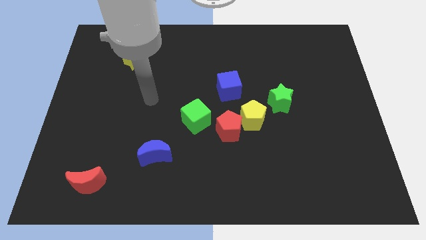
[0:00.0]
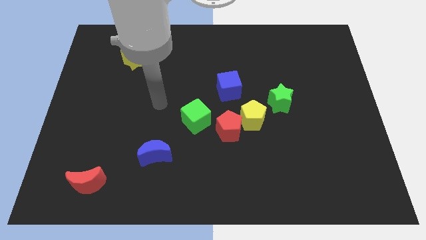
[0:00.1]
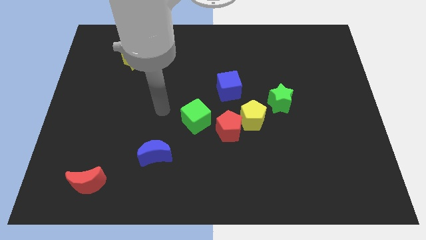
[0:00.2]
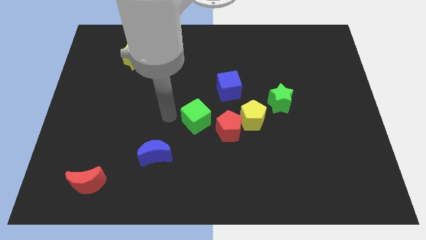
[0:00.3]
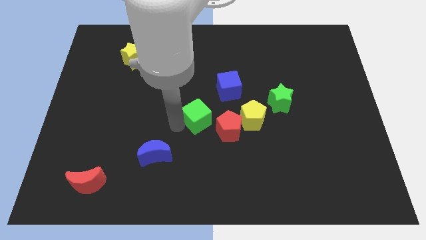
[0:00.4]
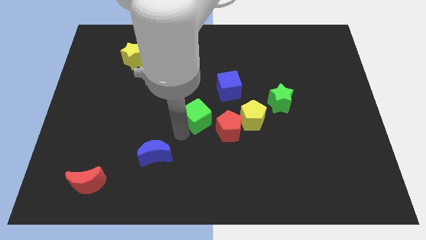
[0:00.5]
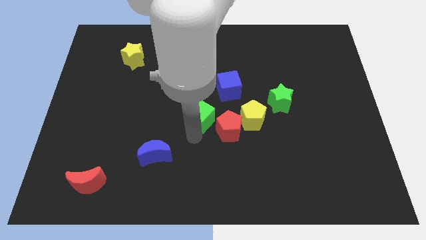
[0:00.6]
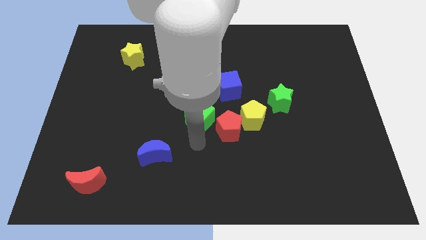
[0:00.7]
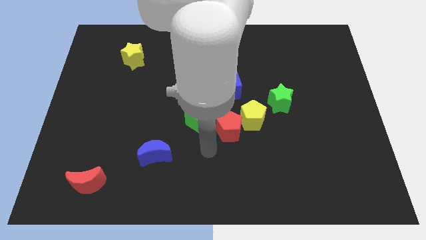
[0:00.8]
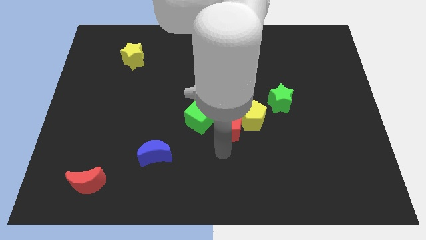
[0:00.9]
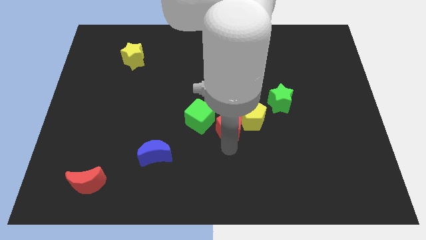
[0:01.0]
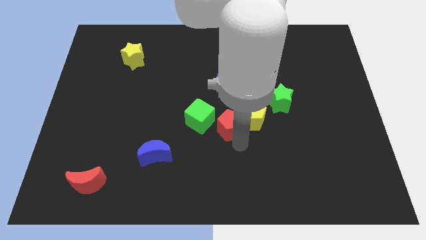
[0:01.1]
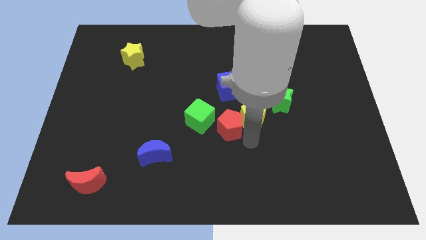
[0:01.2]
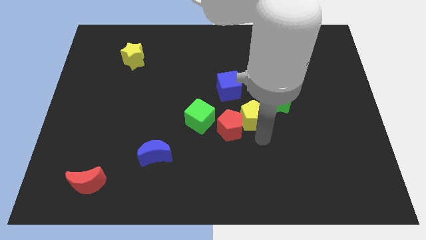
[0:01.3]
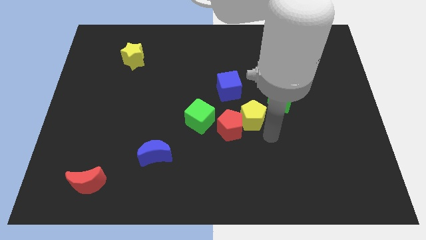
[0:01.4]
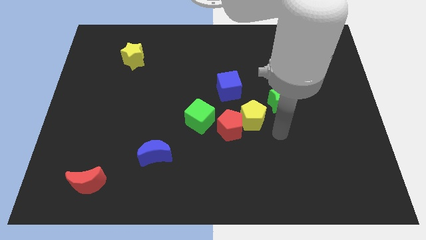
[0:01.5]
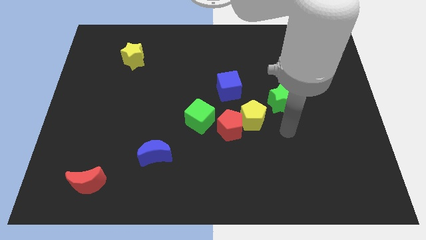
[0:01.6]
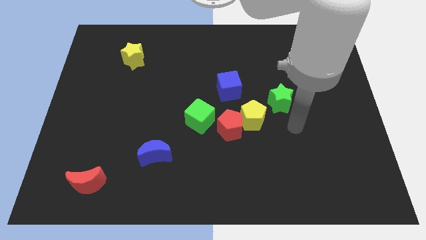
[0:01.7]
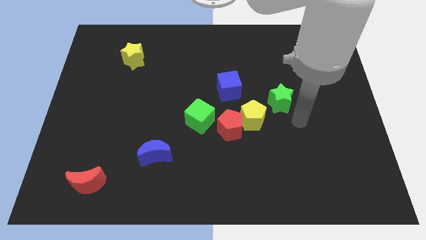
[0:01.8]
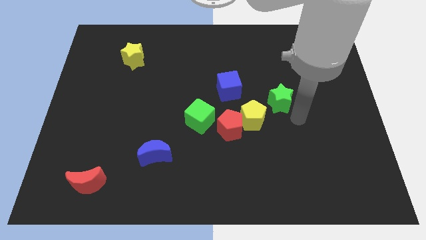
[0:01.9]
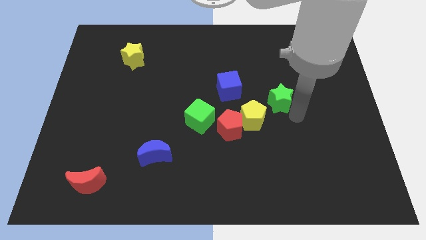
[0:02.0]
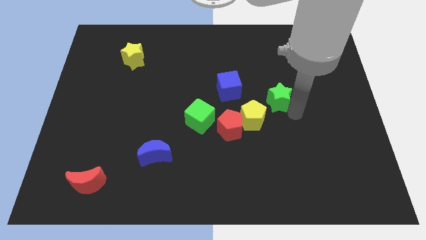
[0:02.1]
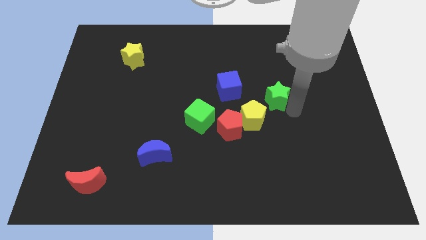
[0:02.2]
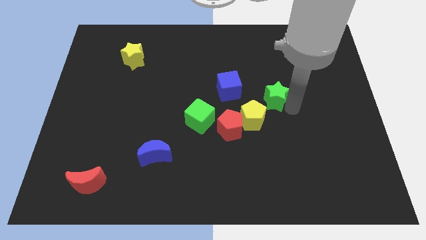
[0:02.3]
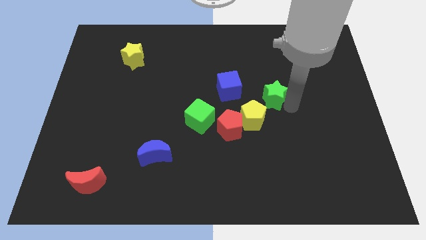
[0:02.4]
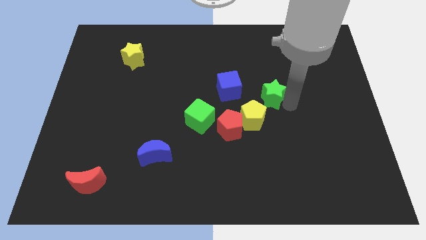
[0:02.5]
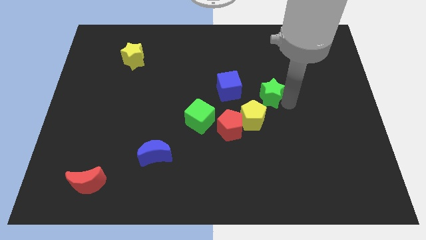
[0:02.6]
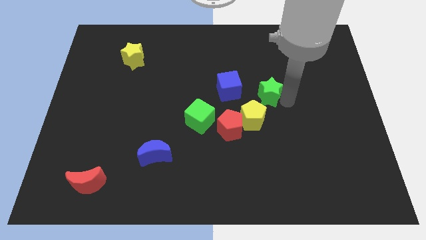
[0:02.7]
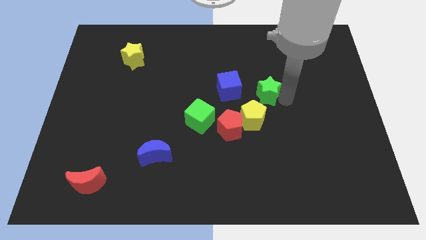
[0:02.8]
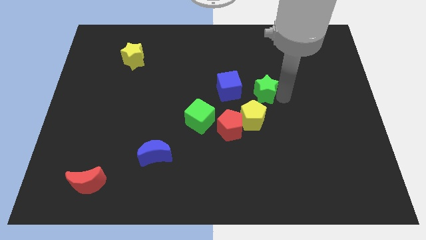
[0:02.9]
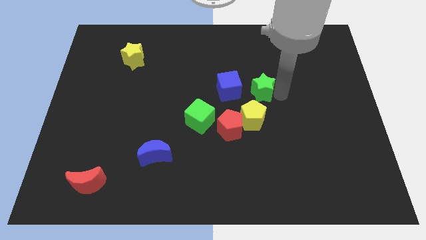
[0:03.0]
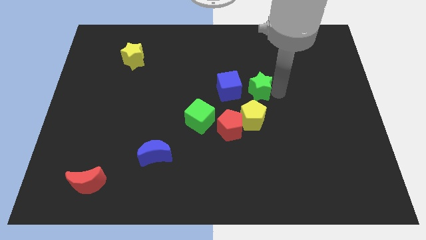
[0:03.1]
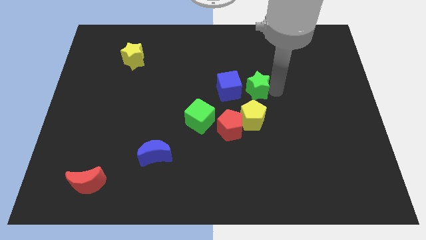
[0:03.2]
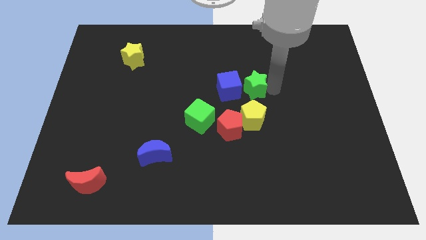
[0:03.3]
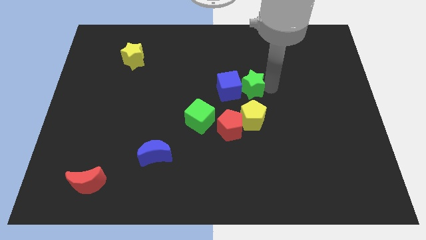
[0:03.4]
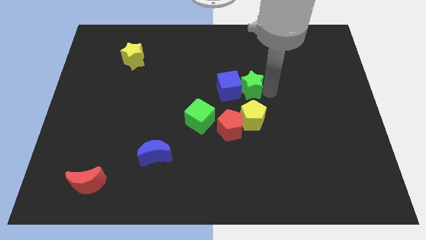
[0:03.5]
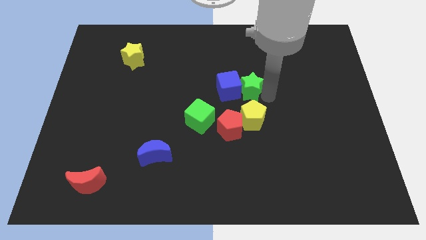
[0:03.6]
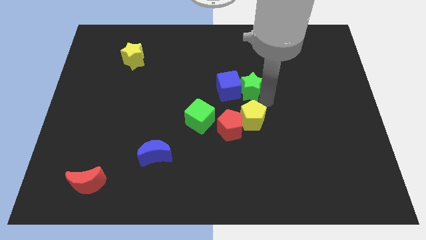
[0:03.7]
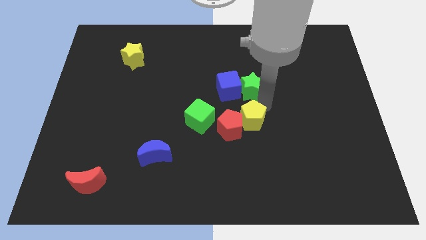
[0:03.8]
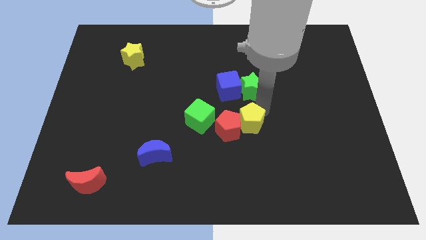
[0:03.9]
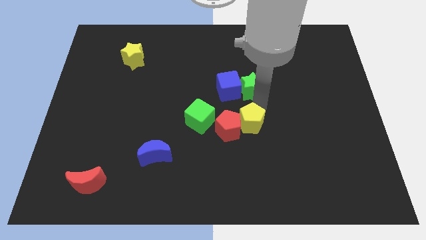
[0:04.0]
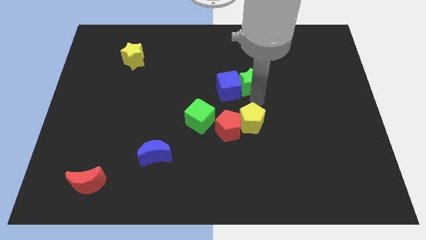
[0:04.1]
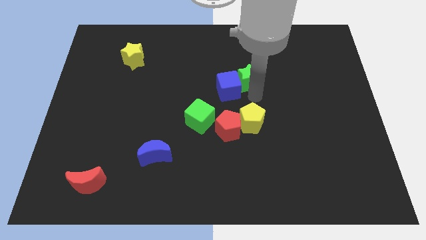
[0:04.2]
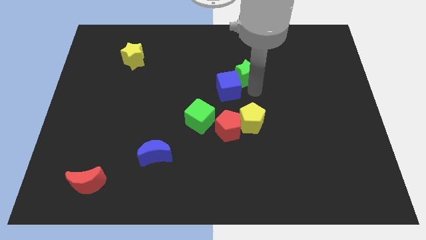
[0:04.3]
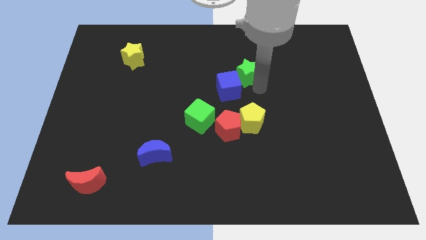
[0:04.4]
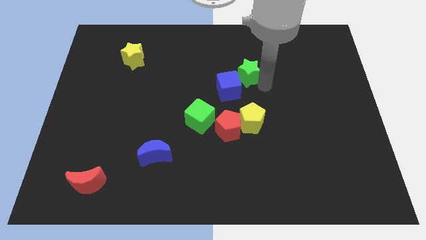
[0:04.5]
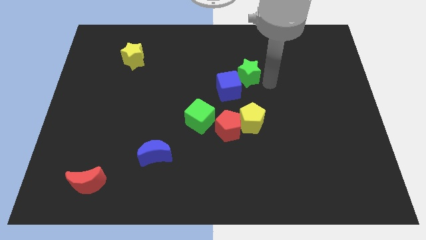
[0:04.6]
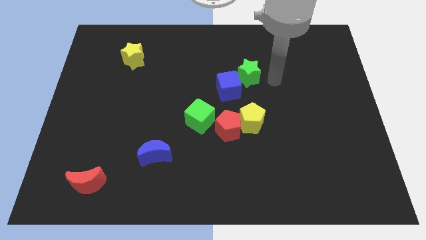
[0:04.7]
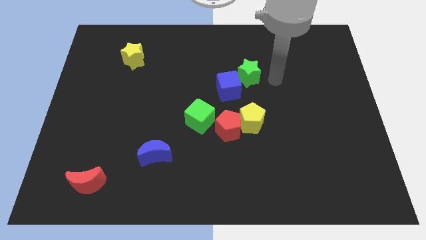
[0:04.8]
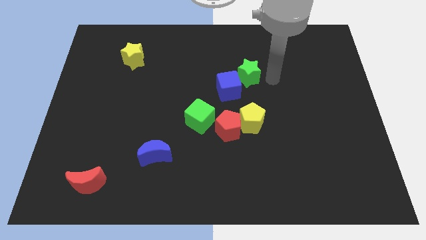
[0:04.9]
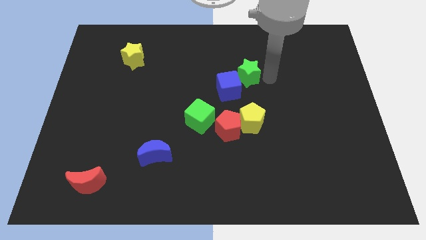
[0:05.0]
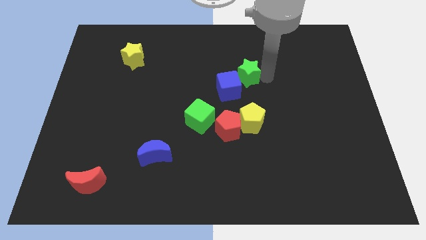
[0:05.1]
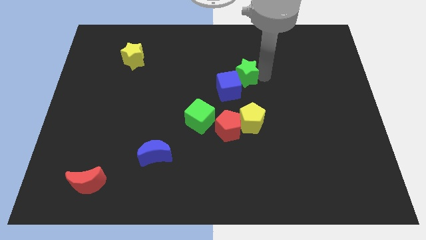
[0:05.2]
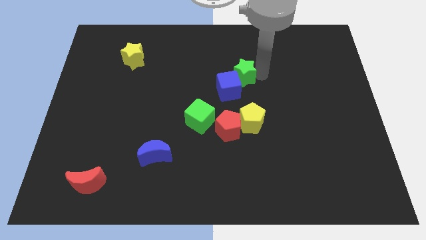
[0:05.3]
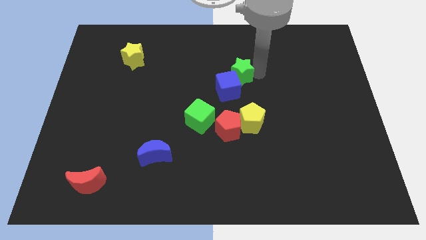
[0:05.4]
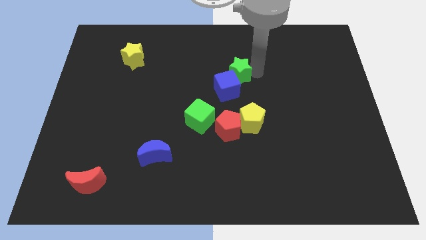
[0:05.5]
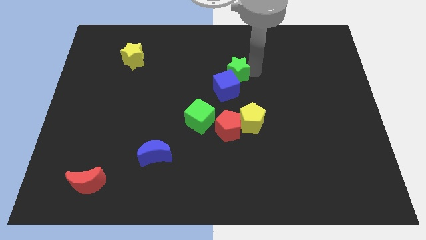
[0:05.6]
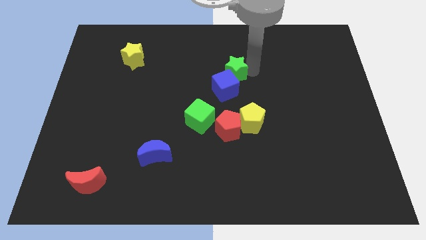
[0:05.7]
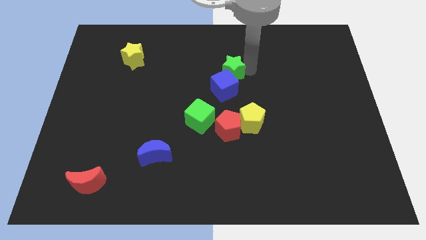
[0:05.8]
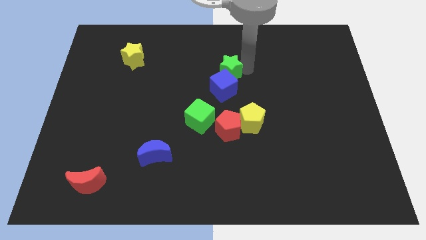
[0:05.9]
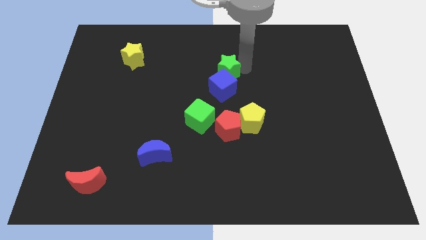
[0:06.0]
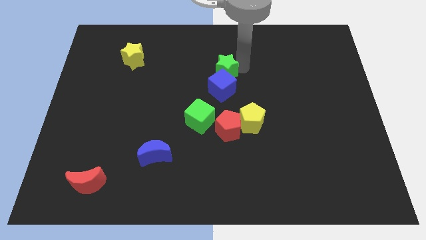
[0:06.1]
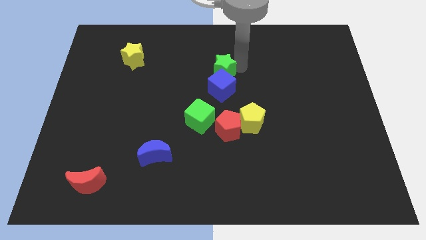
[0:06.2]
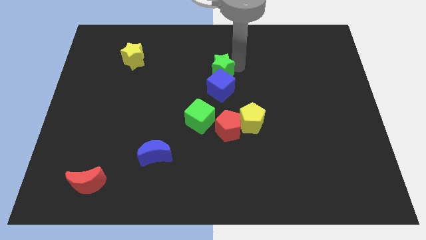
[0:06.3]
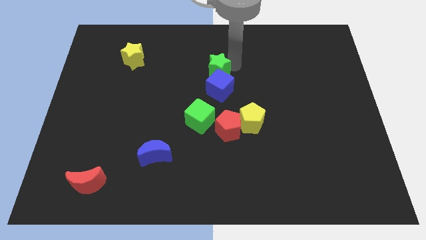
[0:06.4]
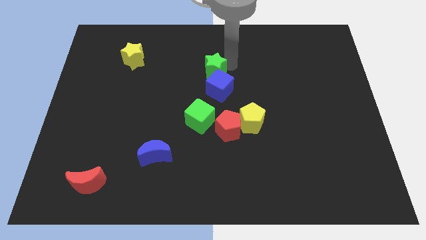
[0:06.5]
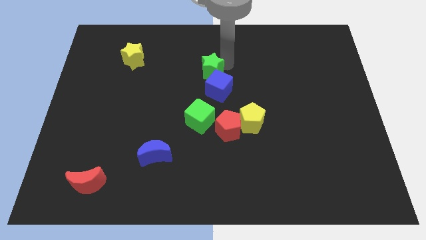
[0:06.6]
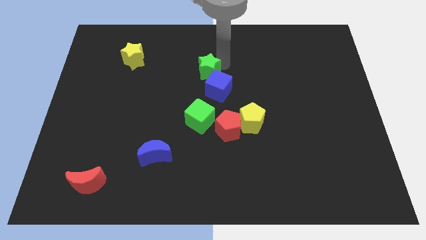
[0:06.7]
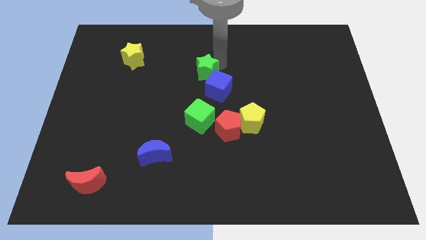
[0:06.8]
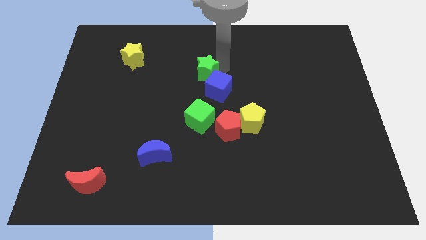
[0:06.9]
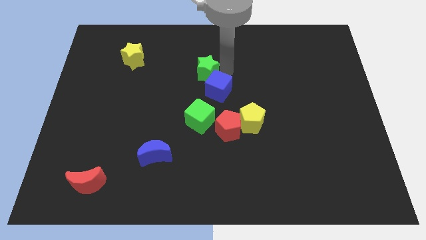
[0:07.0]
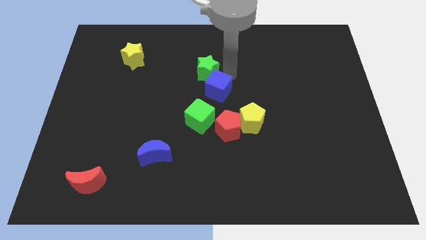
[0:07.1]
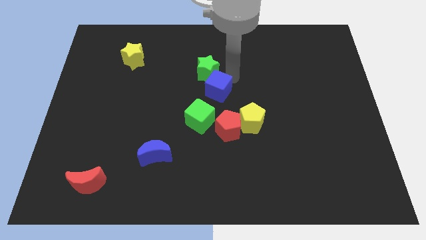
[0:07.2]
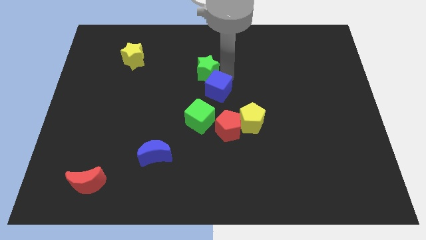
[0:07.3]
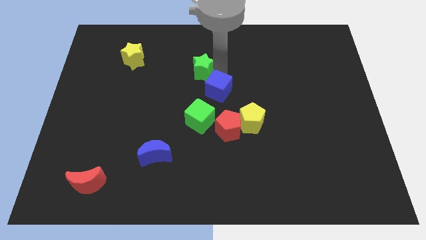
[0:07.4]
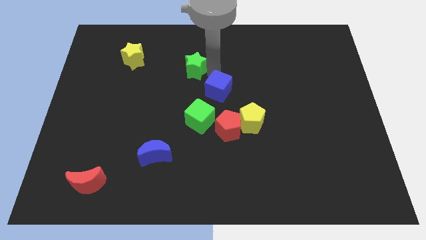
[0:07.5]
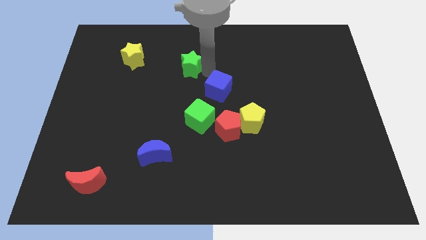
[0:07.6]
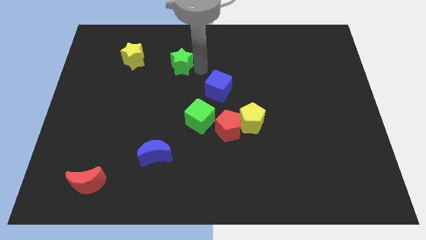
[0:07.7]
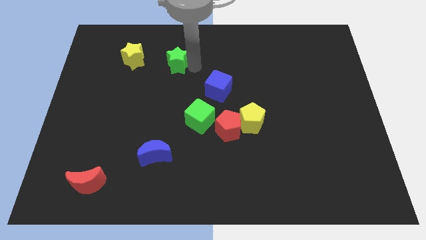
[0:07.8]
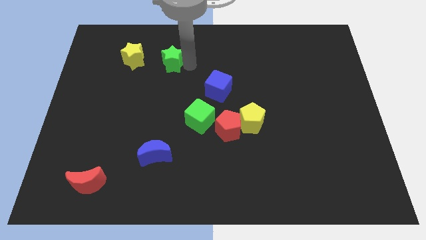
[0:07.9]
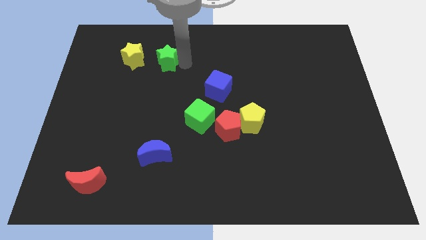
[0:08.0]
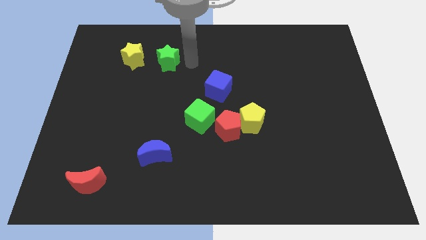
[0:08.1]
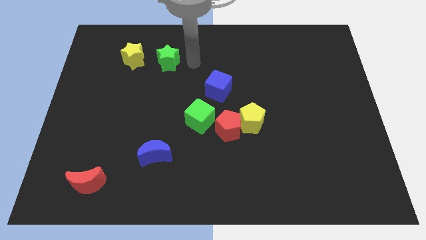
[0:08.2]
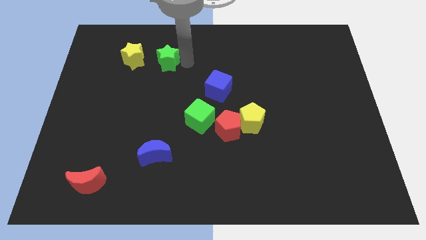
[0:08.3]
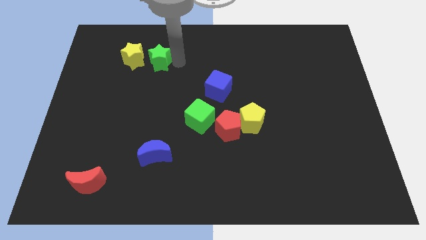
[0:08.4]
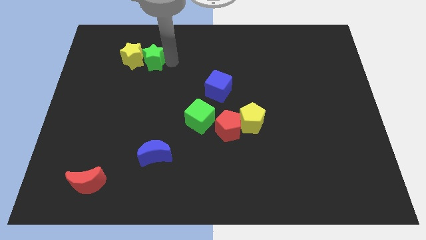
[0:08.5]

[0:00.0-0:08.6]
put the green star towards the yellow star
